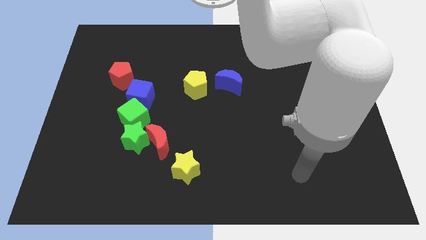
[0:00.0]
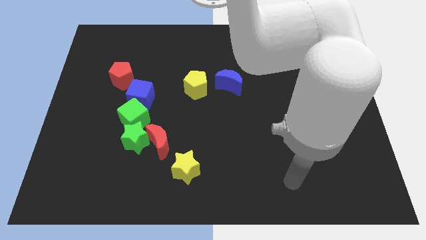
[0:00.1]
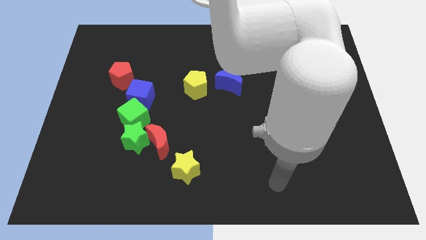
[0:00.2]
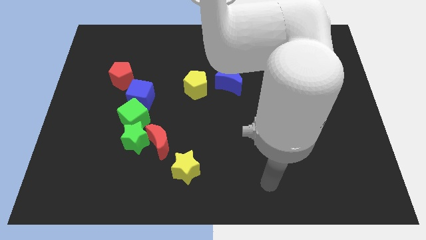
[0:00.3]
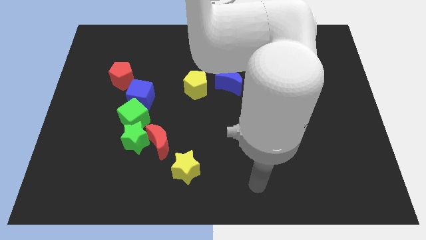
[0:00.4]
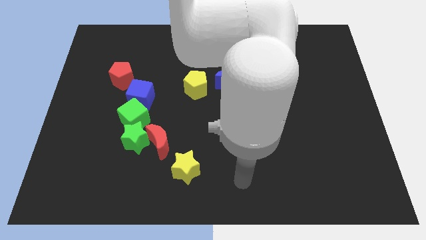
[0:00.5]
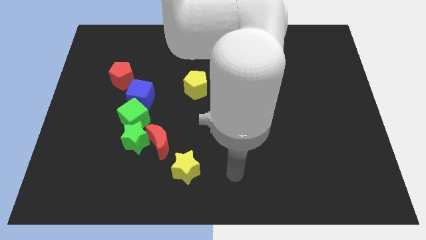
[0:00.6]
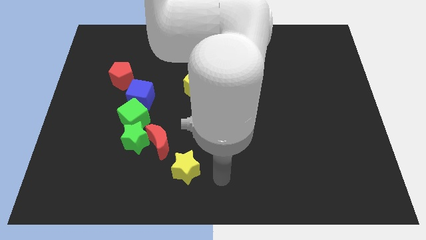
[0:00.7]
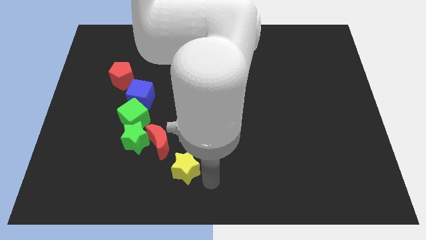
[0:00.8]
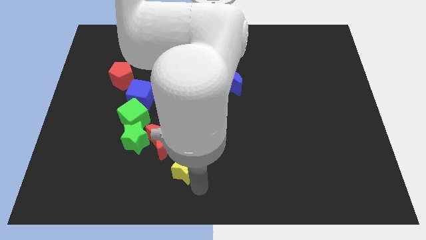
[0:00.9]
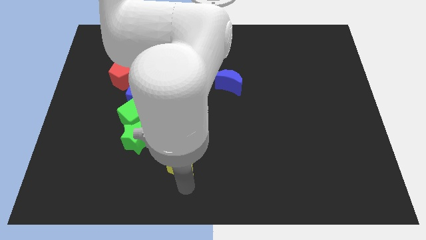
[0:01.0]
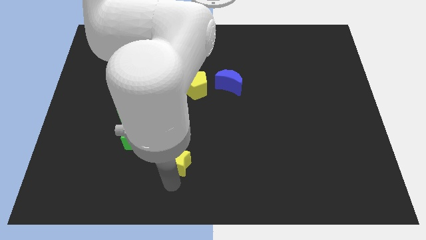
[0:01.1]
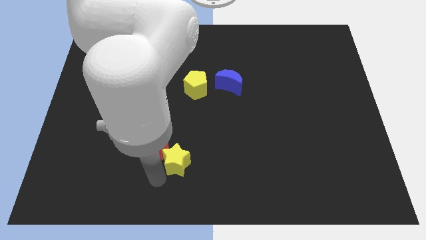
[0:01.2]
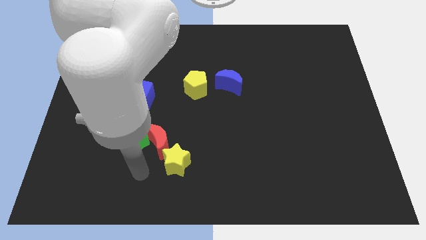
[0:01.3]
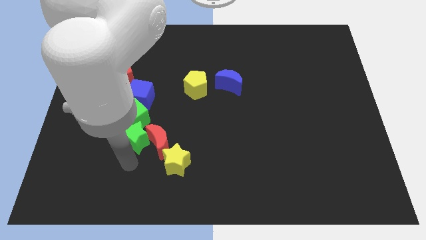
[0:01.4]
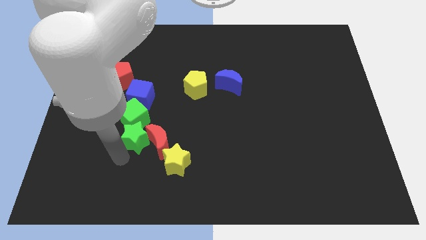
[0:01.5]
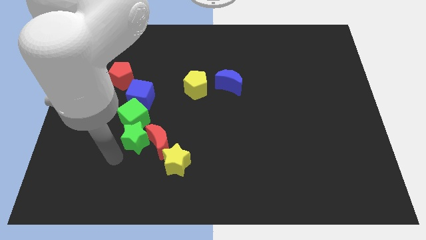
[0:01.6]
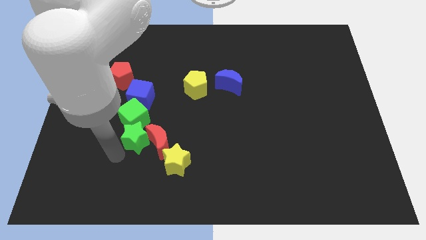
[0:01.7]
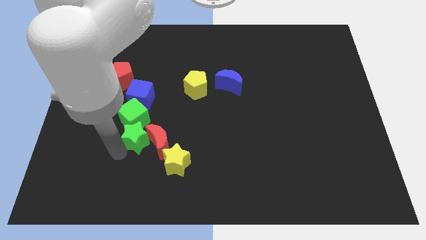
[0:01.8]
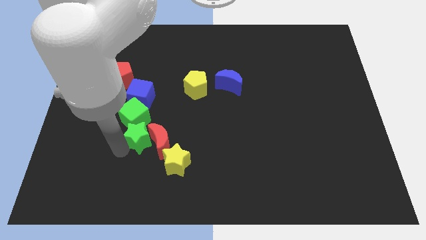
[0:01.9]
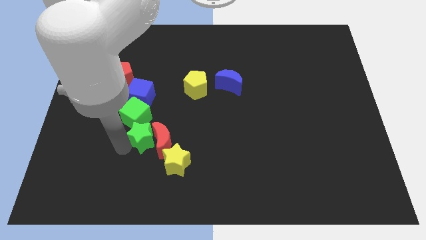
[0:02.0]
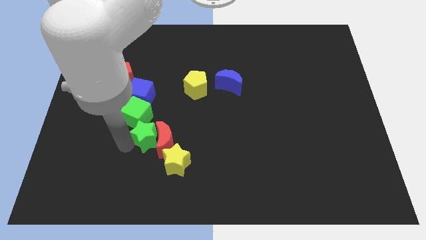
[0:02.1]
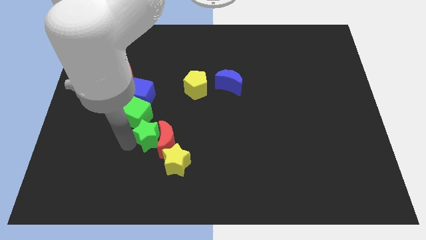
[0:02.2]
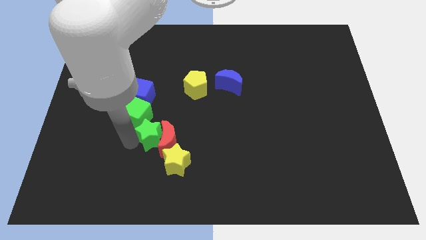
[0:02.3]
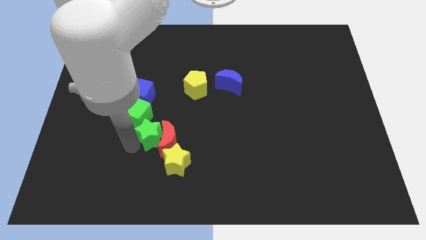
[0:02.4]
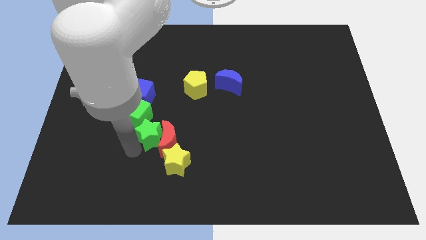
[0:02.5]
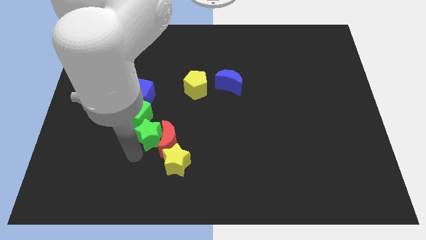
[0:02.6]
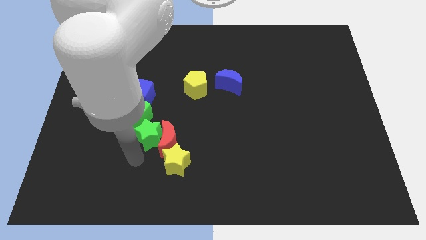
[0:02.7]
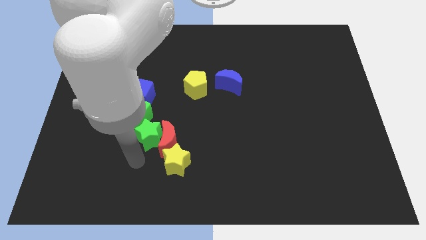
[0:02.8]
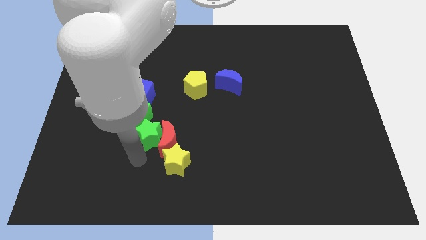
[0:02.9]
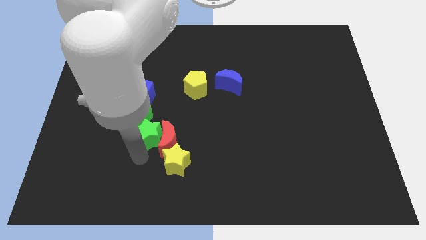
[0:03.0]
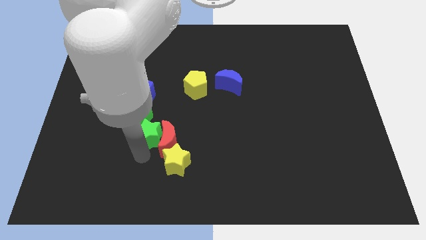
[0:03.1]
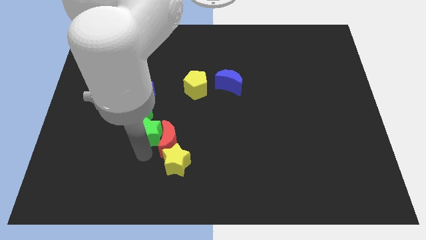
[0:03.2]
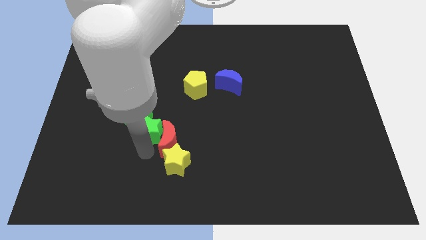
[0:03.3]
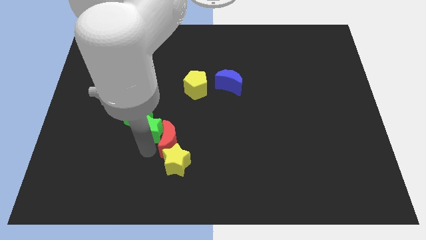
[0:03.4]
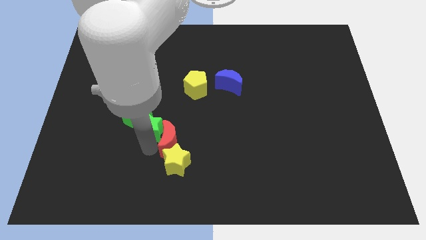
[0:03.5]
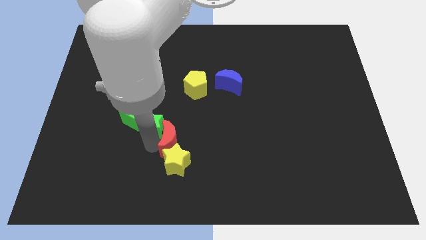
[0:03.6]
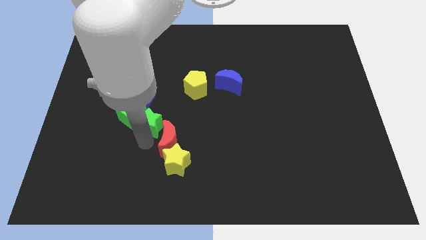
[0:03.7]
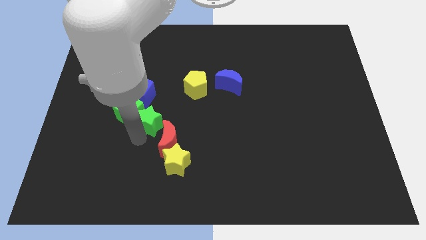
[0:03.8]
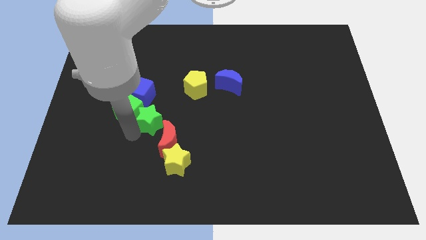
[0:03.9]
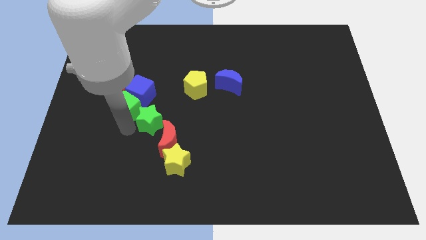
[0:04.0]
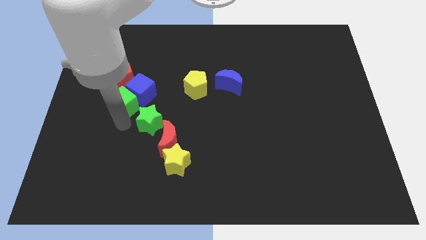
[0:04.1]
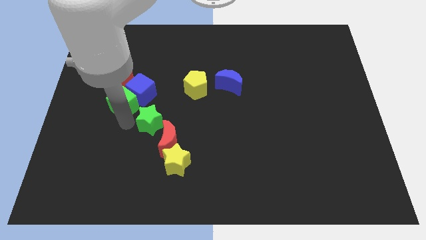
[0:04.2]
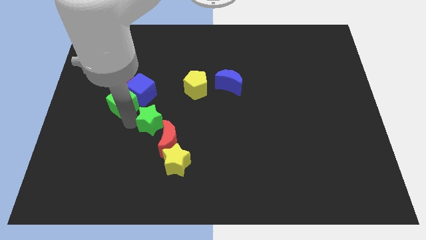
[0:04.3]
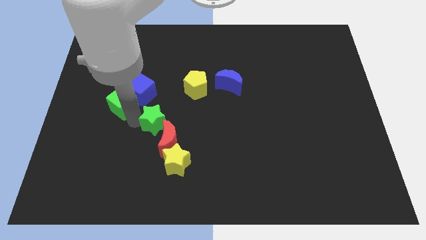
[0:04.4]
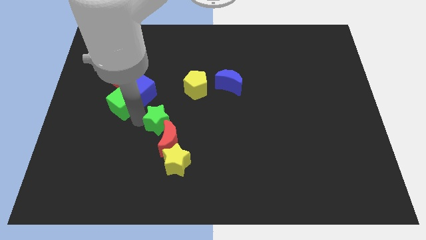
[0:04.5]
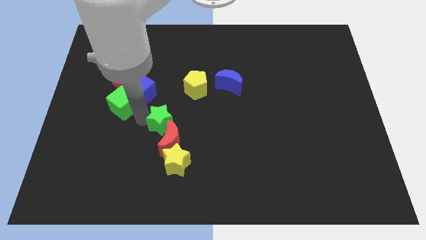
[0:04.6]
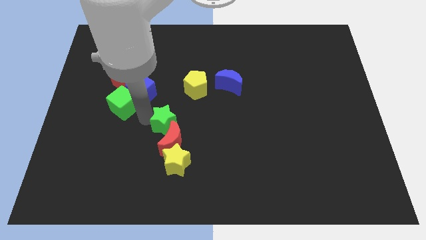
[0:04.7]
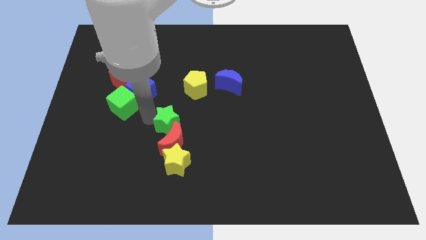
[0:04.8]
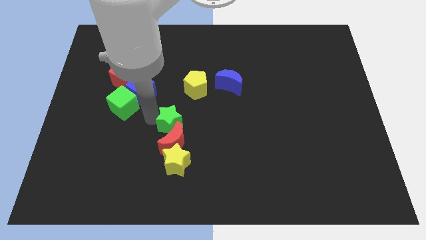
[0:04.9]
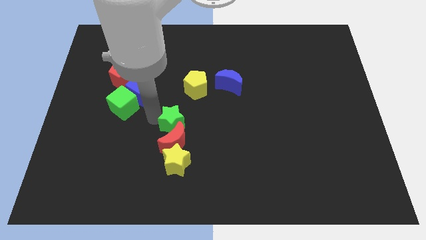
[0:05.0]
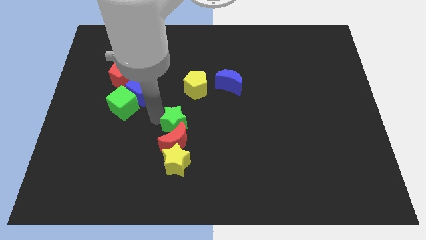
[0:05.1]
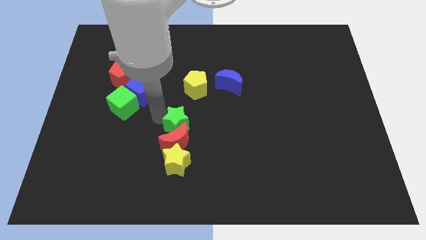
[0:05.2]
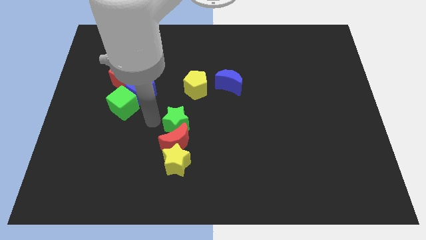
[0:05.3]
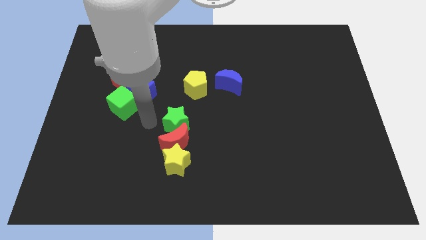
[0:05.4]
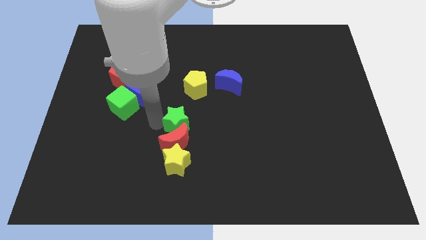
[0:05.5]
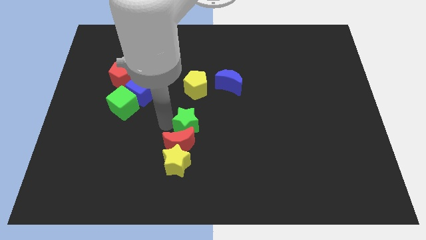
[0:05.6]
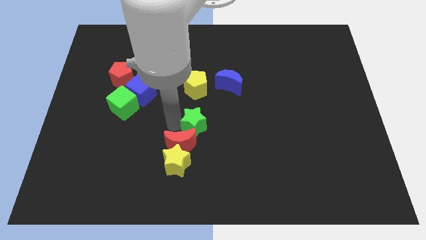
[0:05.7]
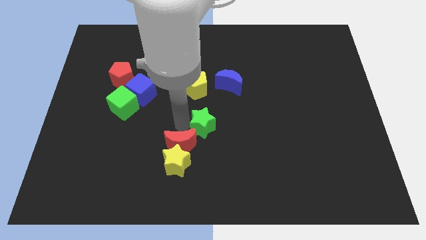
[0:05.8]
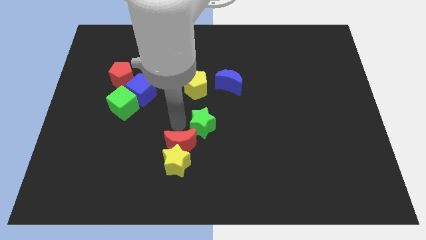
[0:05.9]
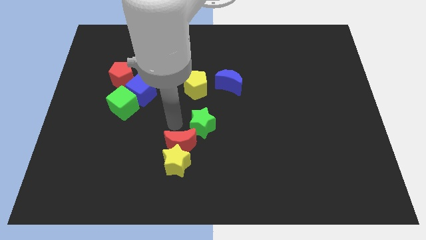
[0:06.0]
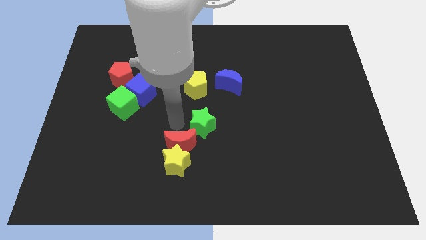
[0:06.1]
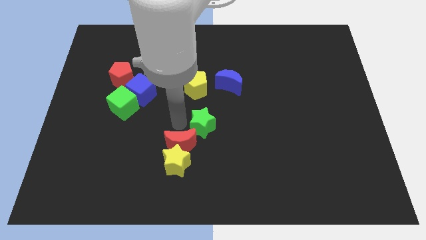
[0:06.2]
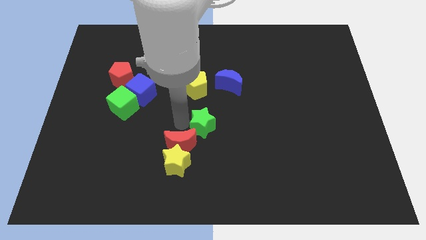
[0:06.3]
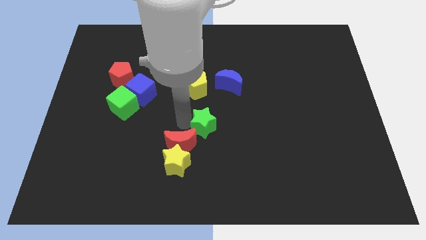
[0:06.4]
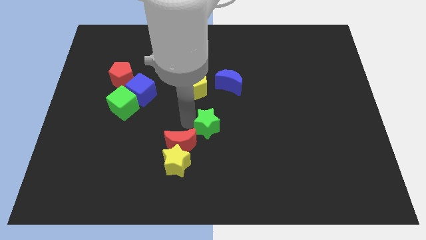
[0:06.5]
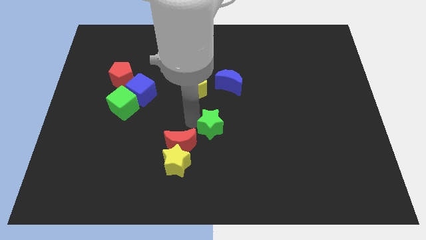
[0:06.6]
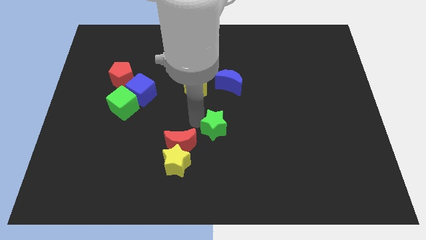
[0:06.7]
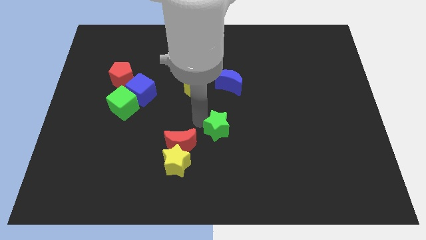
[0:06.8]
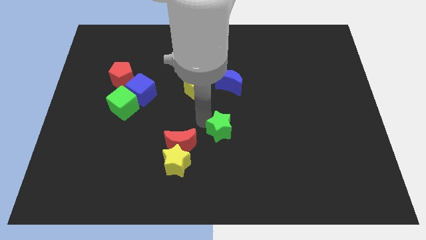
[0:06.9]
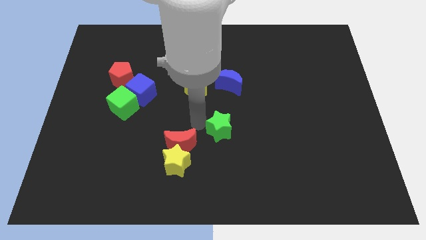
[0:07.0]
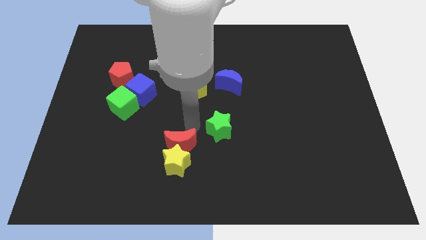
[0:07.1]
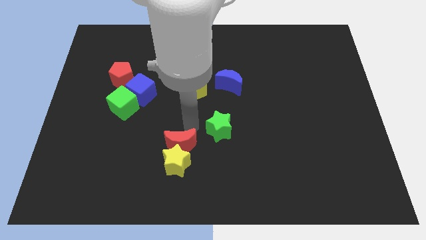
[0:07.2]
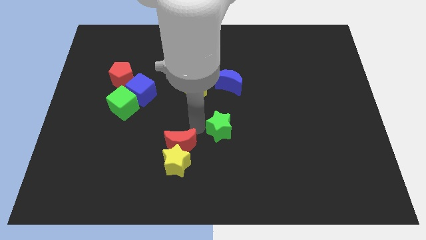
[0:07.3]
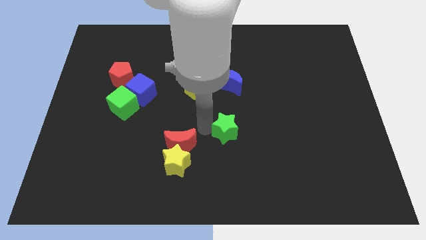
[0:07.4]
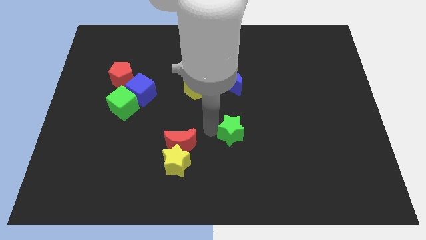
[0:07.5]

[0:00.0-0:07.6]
push the green star right

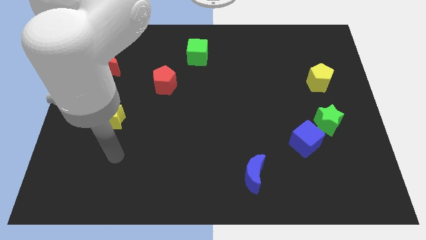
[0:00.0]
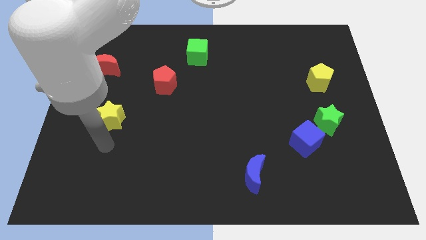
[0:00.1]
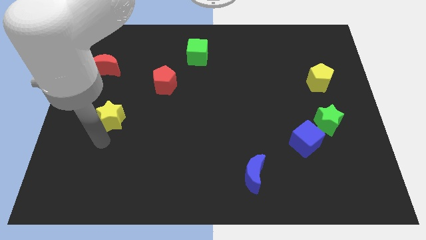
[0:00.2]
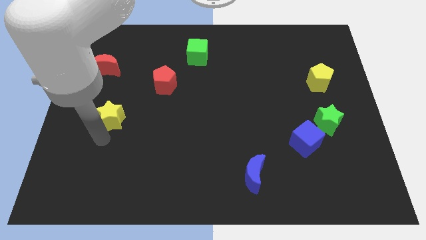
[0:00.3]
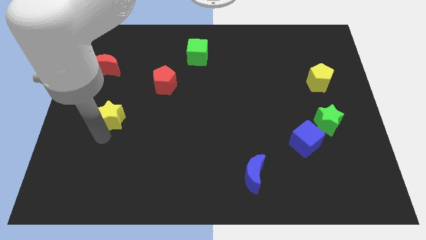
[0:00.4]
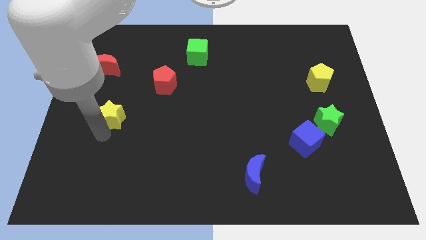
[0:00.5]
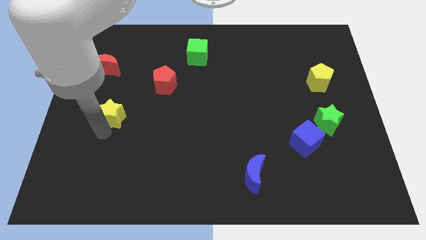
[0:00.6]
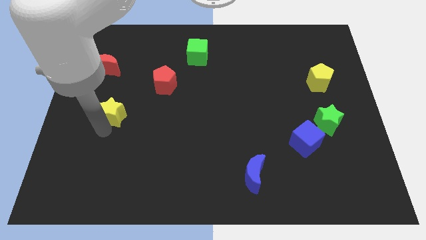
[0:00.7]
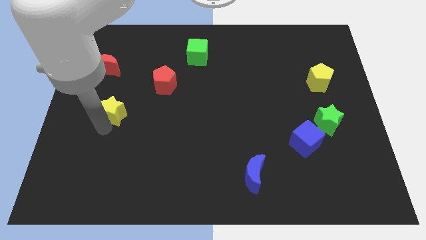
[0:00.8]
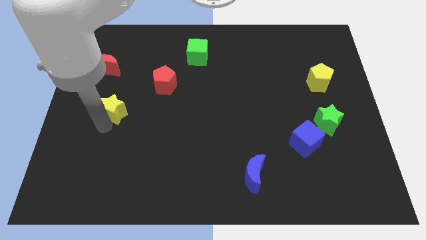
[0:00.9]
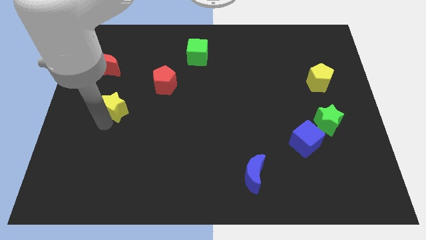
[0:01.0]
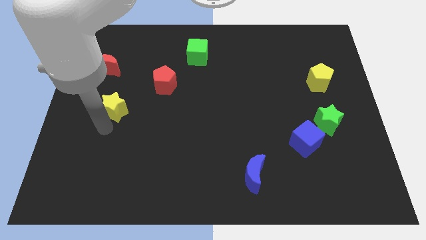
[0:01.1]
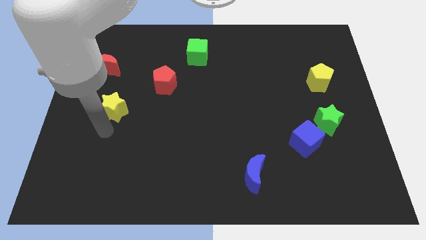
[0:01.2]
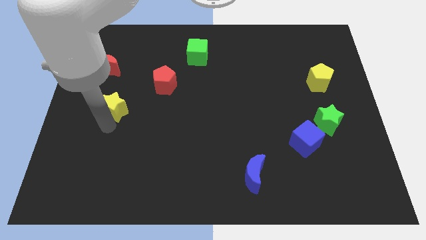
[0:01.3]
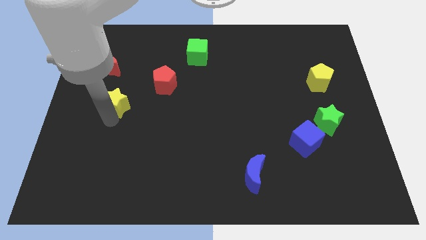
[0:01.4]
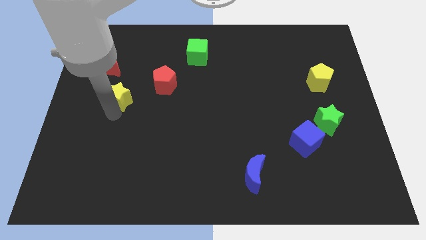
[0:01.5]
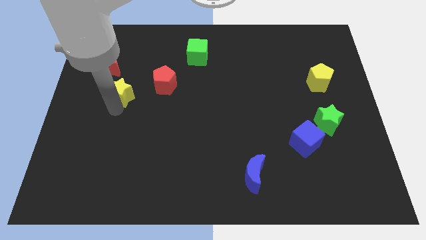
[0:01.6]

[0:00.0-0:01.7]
slide the yellow star up a little
